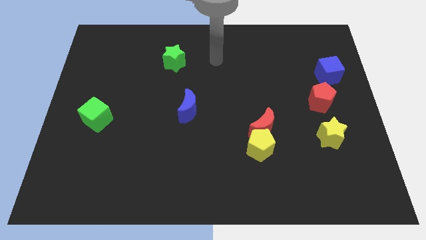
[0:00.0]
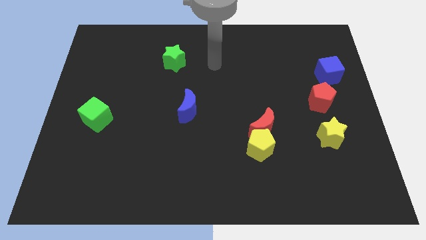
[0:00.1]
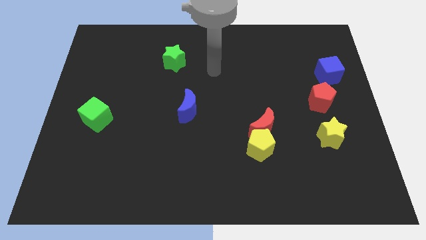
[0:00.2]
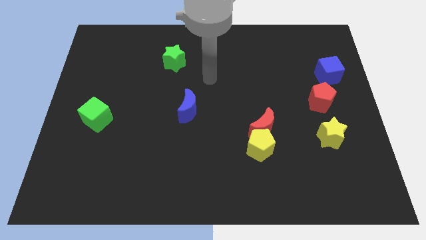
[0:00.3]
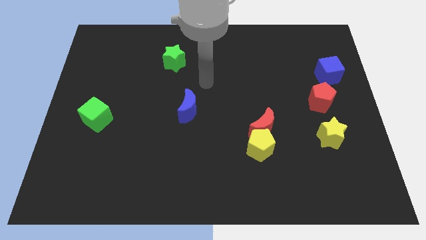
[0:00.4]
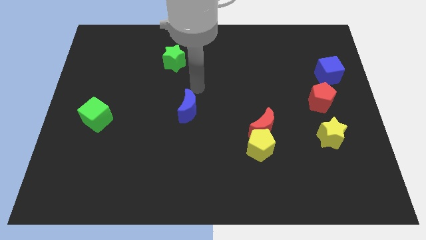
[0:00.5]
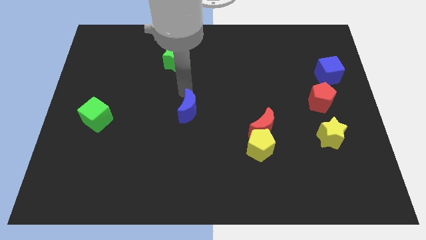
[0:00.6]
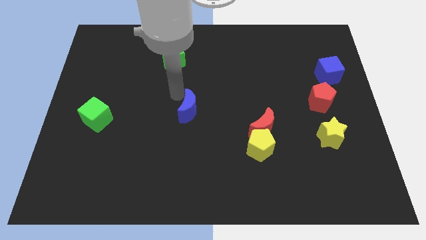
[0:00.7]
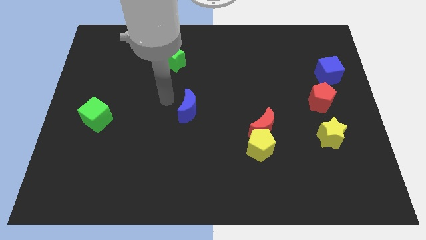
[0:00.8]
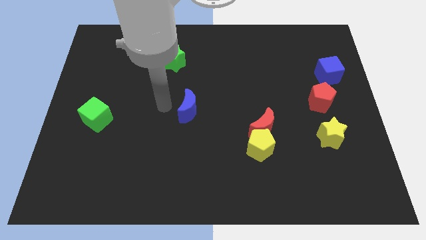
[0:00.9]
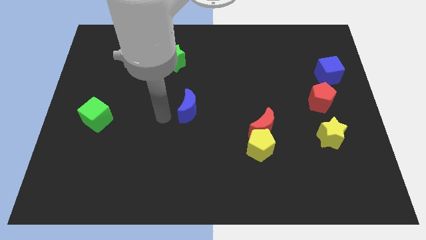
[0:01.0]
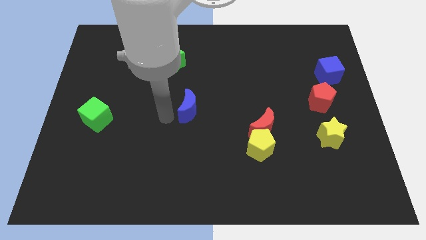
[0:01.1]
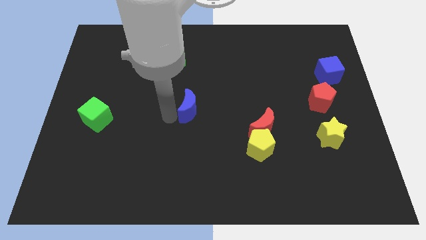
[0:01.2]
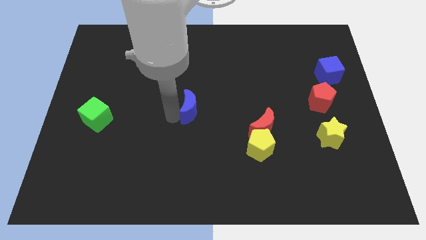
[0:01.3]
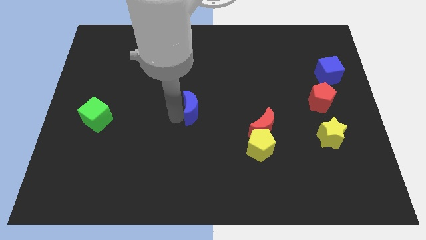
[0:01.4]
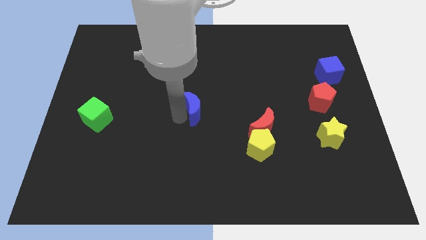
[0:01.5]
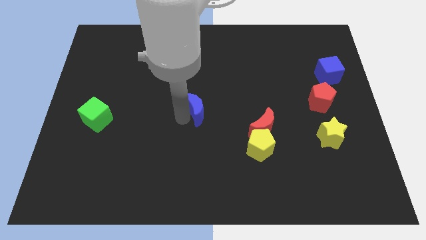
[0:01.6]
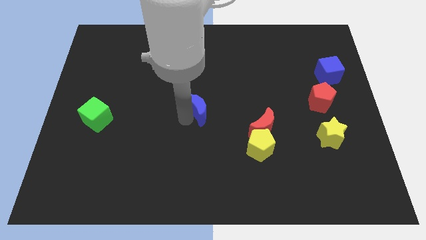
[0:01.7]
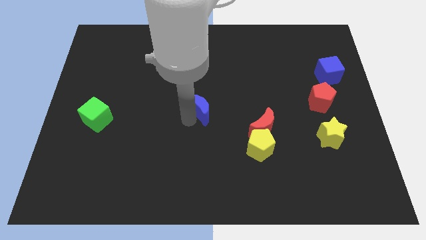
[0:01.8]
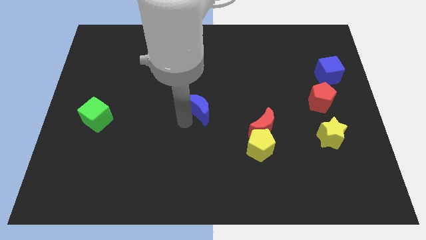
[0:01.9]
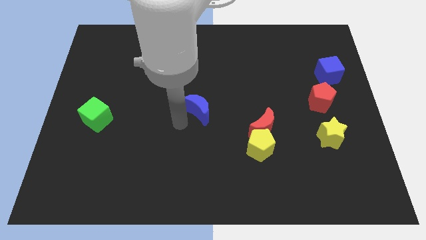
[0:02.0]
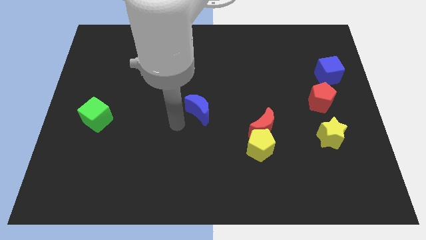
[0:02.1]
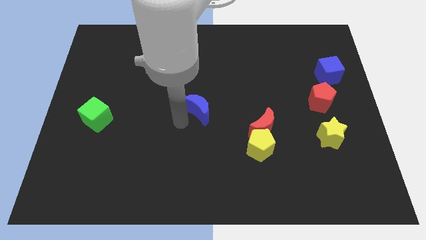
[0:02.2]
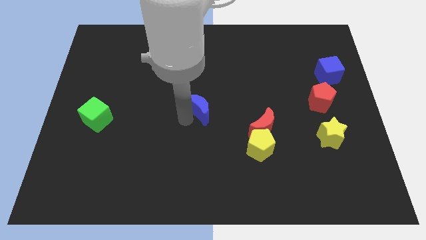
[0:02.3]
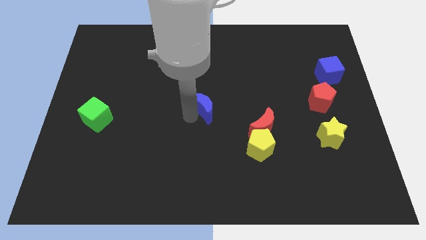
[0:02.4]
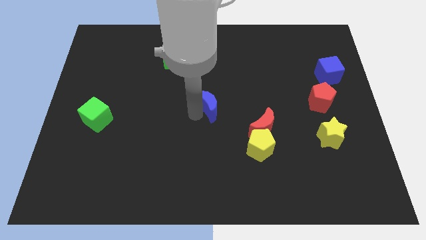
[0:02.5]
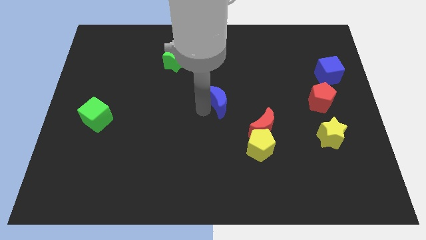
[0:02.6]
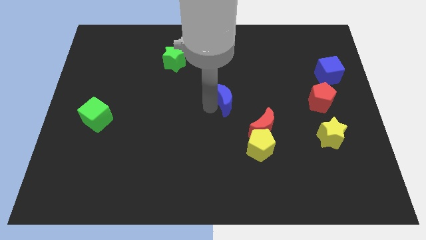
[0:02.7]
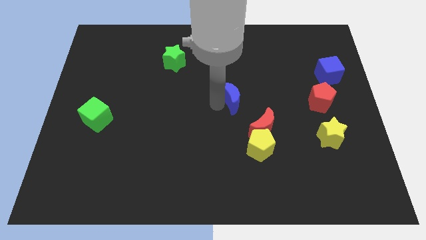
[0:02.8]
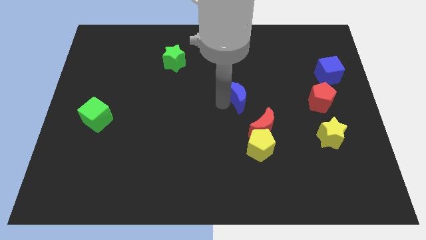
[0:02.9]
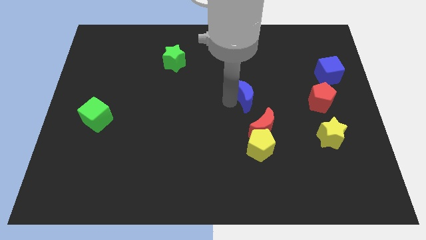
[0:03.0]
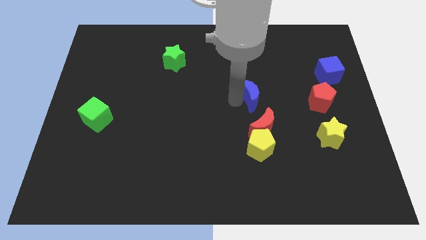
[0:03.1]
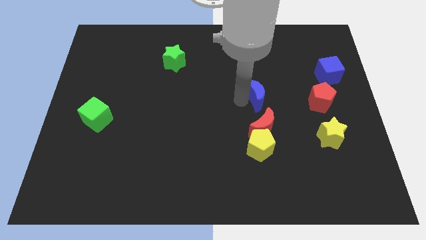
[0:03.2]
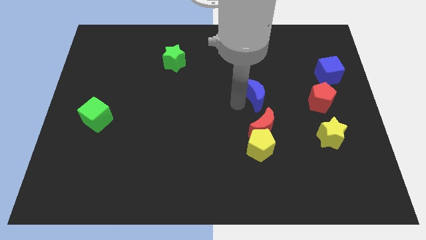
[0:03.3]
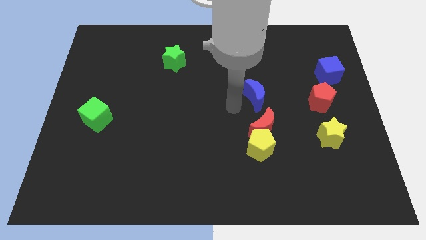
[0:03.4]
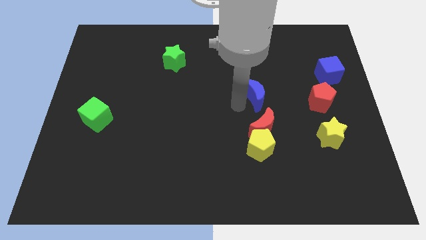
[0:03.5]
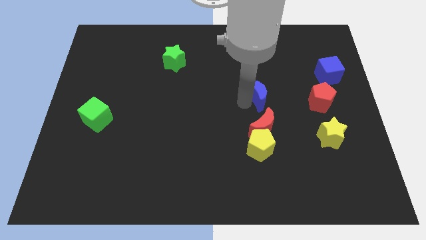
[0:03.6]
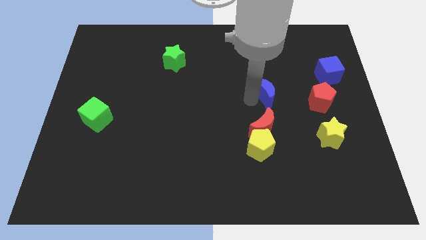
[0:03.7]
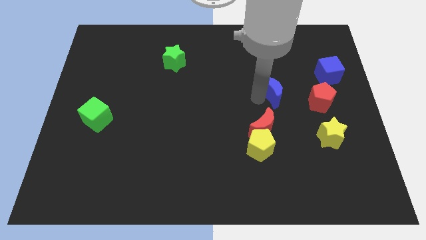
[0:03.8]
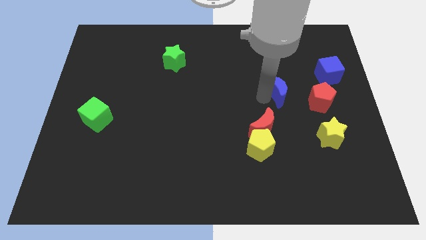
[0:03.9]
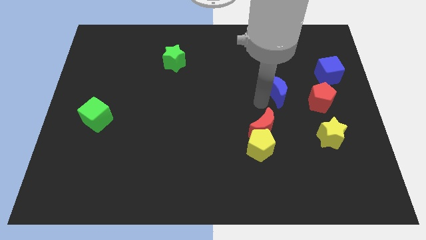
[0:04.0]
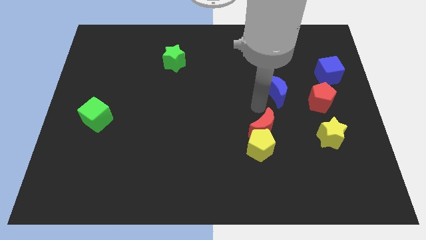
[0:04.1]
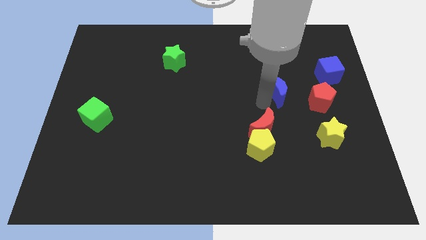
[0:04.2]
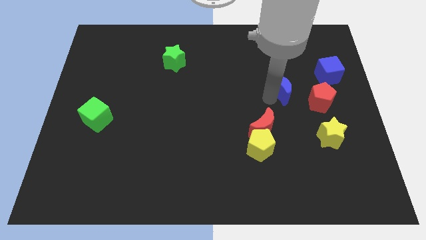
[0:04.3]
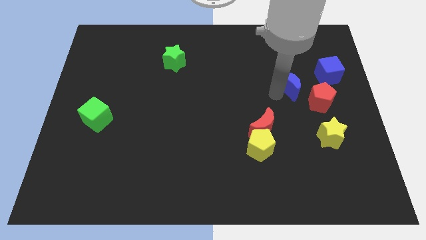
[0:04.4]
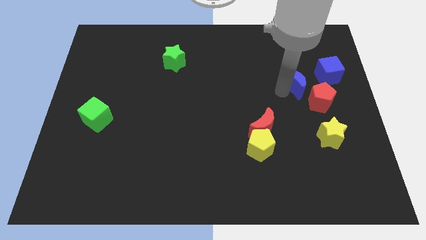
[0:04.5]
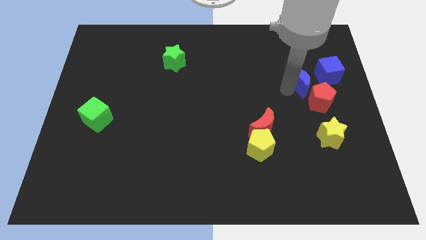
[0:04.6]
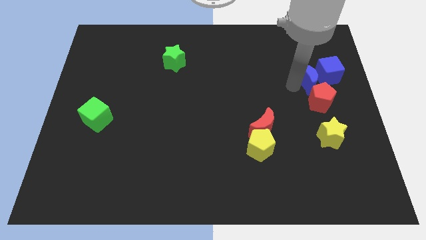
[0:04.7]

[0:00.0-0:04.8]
put the blue moon to the blue cube

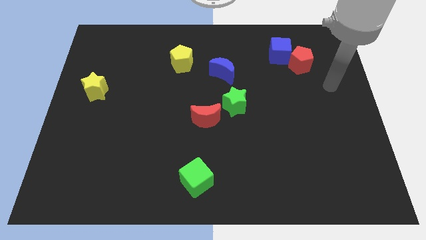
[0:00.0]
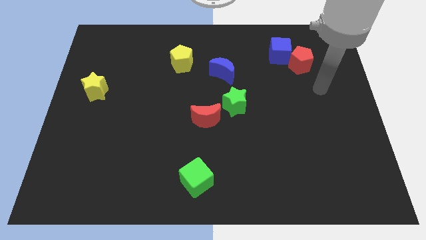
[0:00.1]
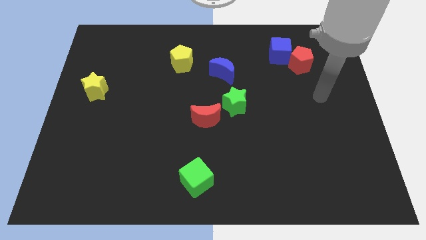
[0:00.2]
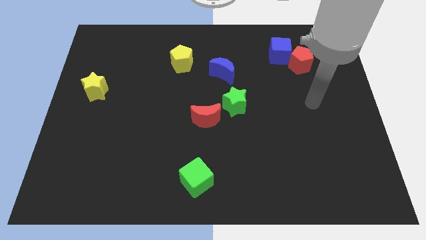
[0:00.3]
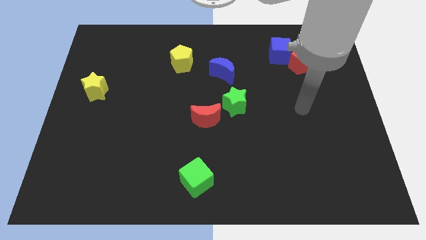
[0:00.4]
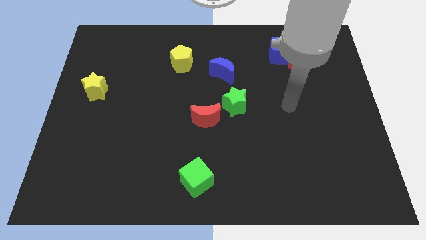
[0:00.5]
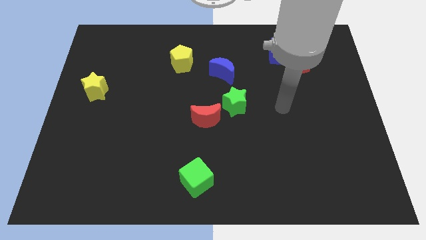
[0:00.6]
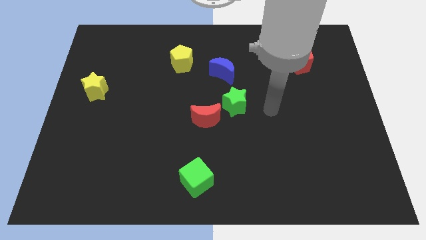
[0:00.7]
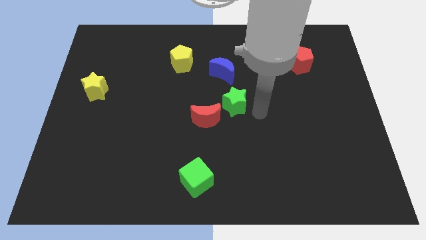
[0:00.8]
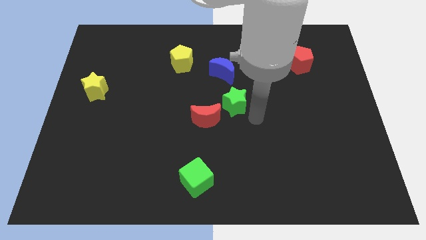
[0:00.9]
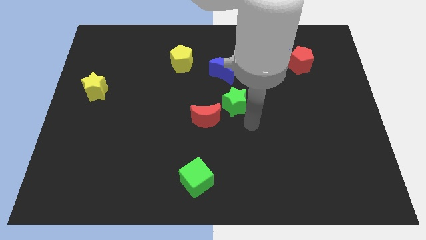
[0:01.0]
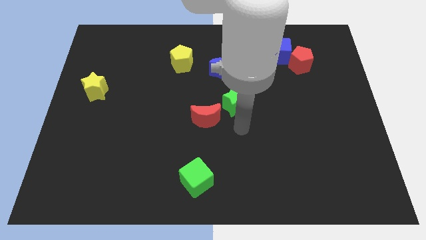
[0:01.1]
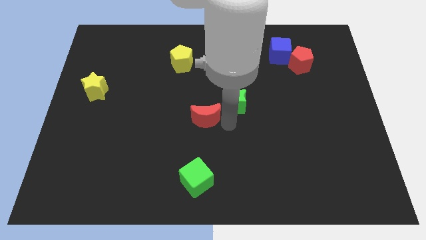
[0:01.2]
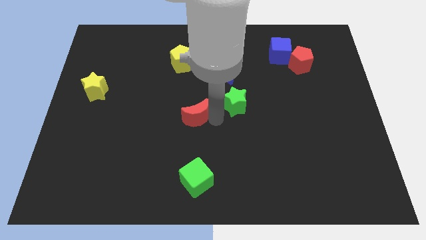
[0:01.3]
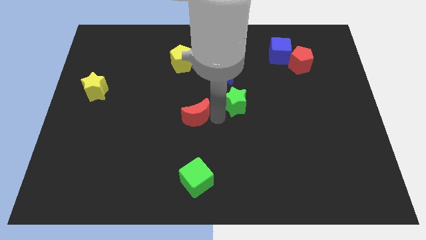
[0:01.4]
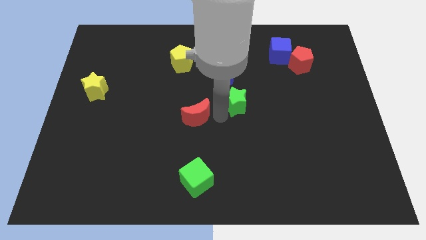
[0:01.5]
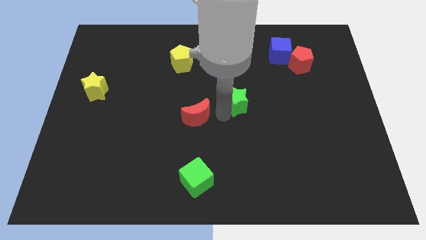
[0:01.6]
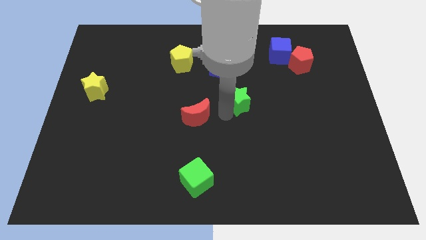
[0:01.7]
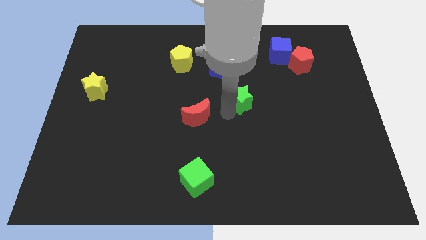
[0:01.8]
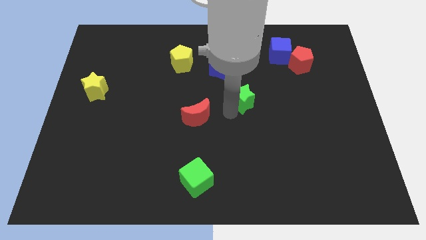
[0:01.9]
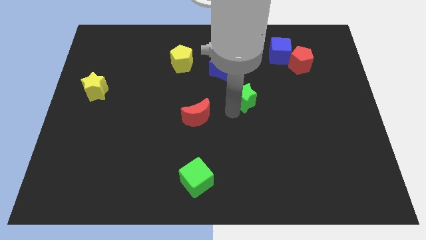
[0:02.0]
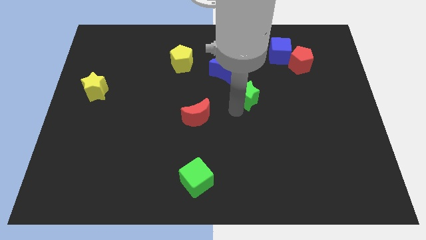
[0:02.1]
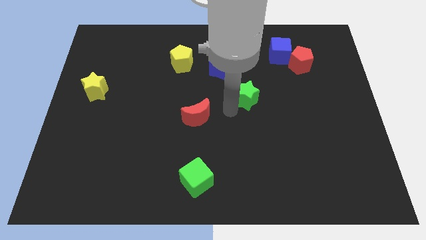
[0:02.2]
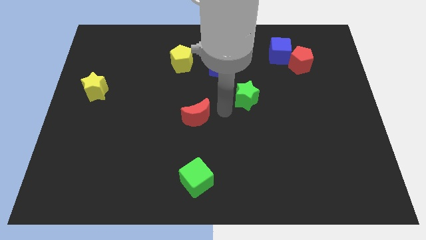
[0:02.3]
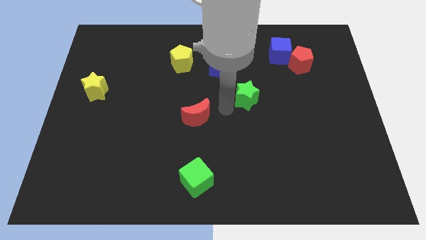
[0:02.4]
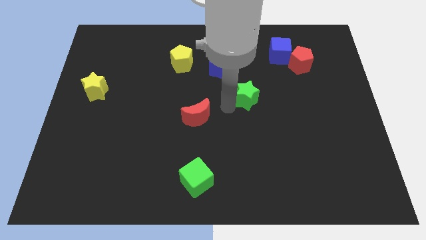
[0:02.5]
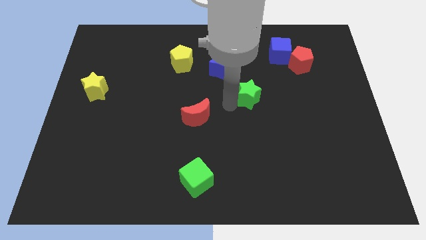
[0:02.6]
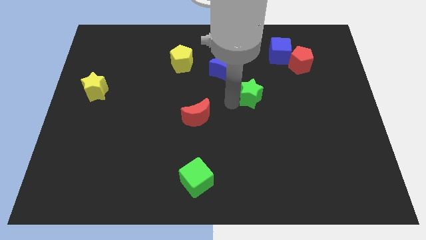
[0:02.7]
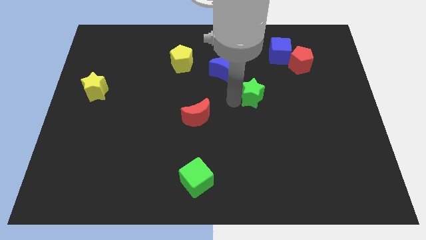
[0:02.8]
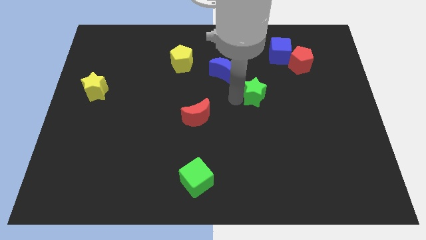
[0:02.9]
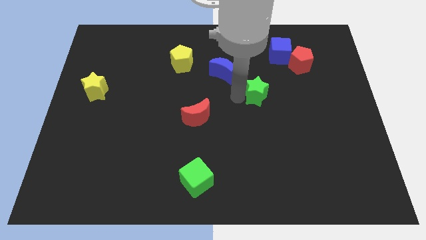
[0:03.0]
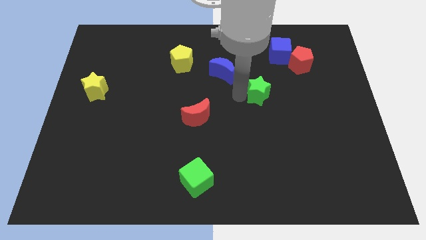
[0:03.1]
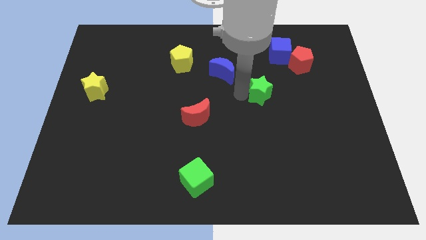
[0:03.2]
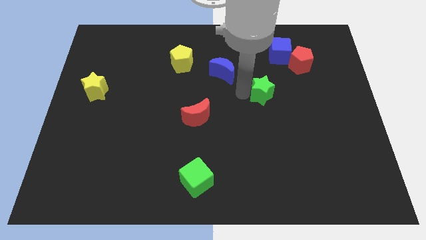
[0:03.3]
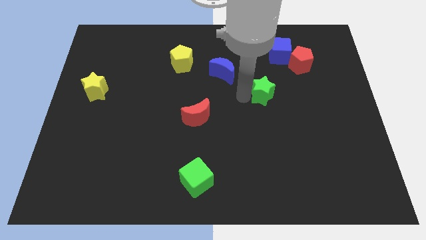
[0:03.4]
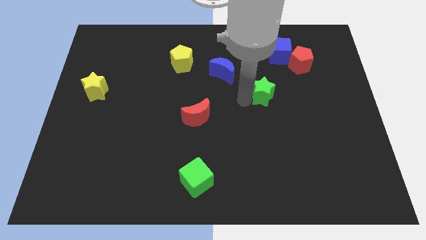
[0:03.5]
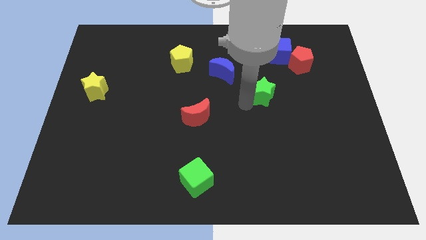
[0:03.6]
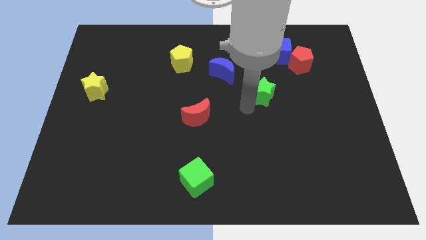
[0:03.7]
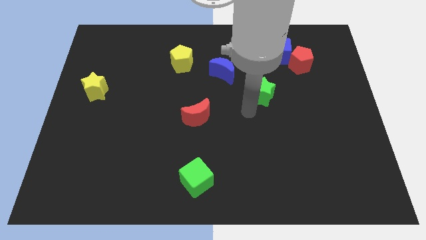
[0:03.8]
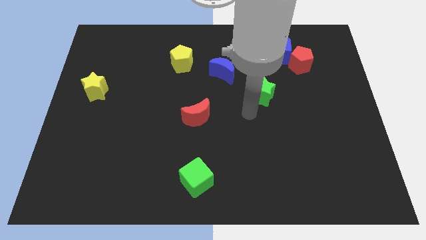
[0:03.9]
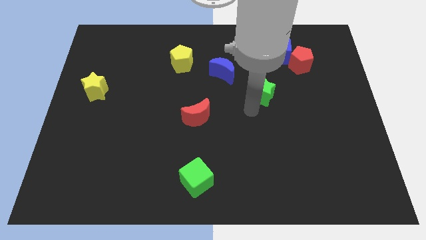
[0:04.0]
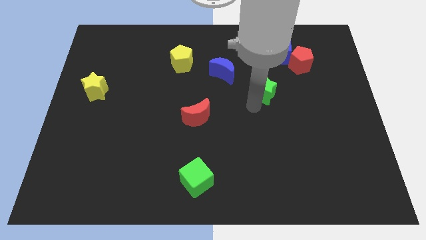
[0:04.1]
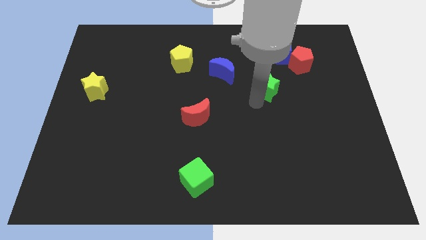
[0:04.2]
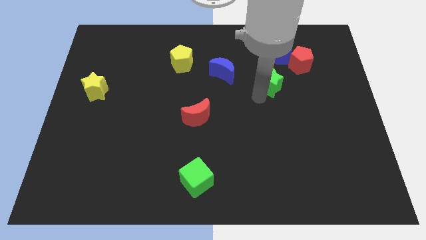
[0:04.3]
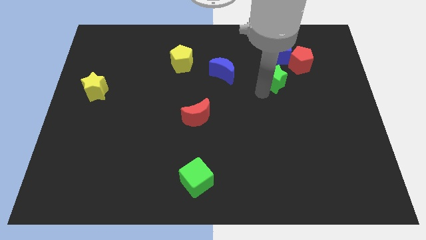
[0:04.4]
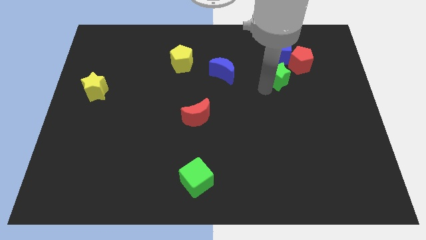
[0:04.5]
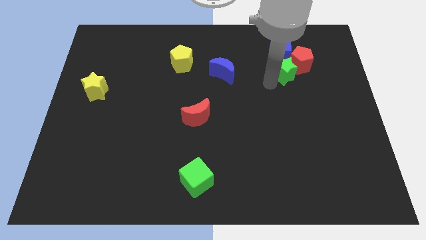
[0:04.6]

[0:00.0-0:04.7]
slide the green star to the red pentagon
